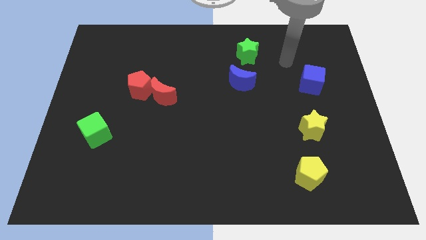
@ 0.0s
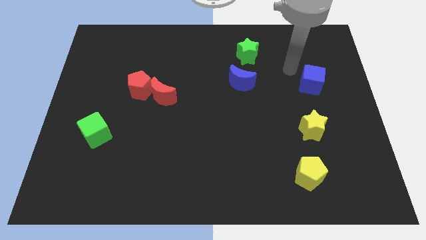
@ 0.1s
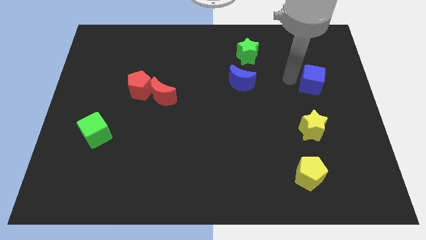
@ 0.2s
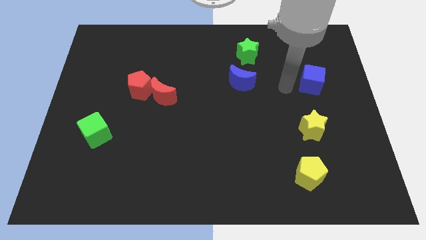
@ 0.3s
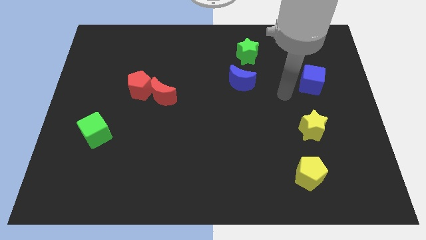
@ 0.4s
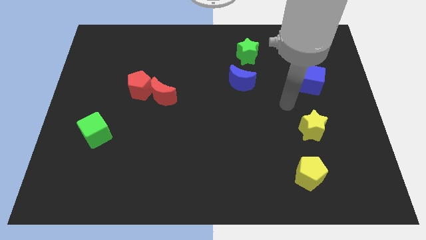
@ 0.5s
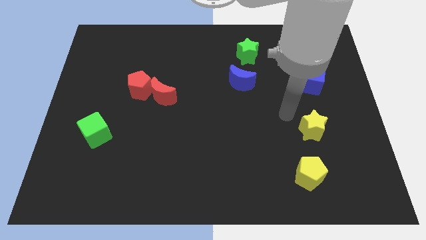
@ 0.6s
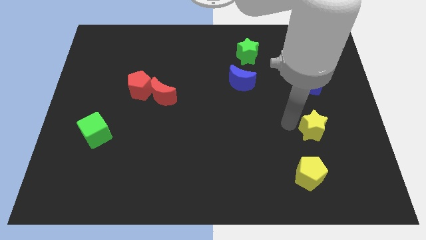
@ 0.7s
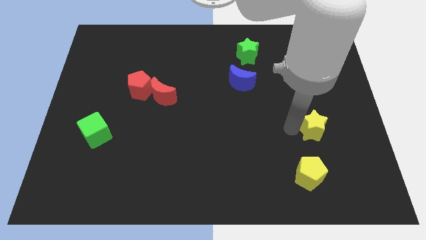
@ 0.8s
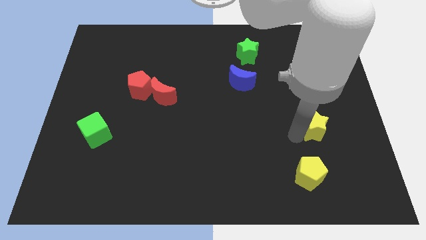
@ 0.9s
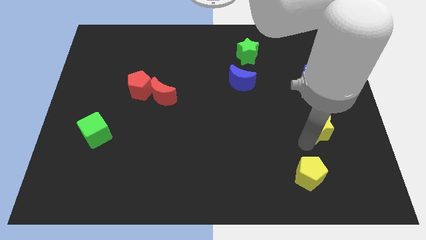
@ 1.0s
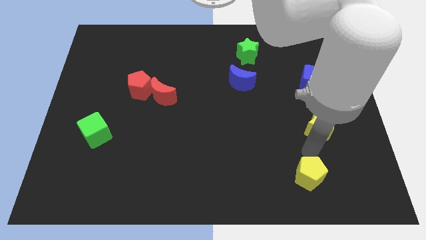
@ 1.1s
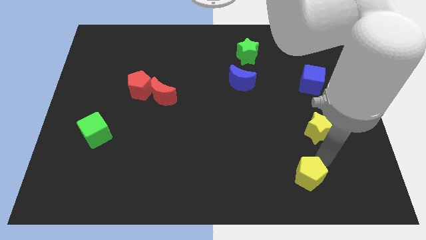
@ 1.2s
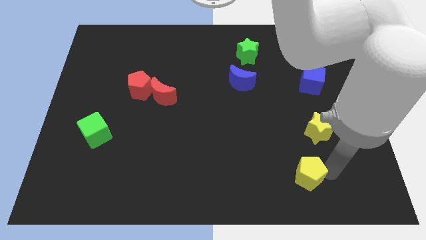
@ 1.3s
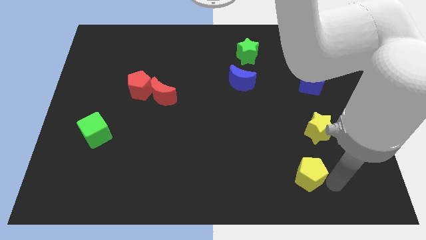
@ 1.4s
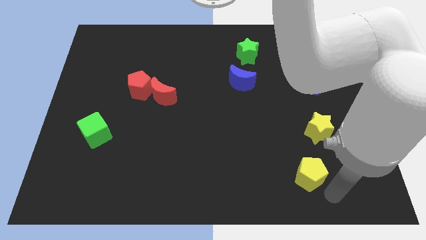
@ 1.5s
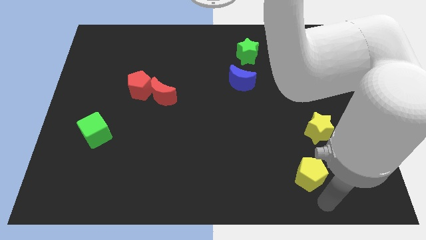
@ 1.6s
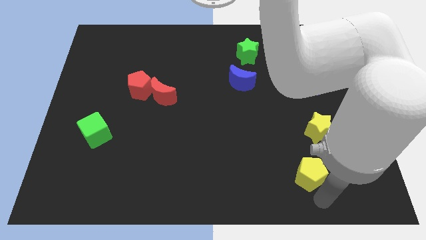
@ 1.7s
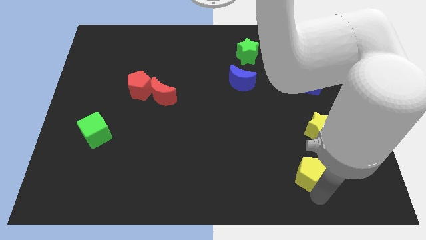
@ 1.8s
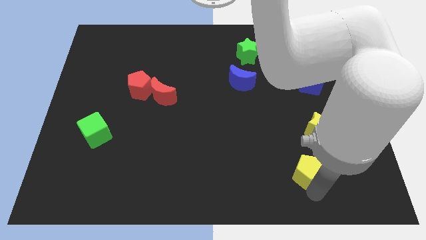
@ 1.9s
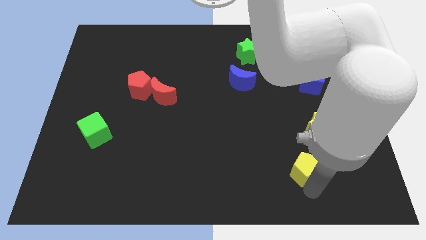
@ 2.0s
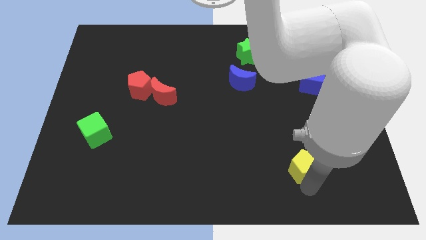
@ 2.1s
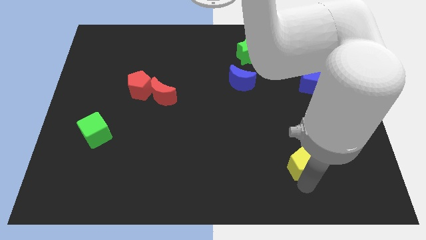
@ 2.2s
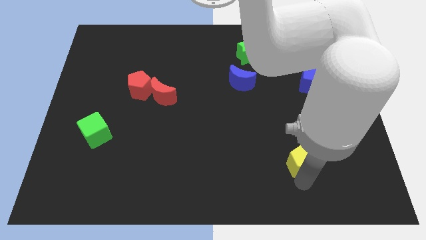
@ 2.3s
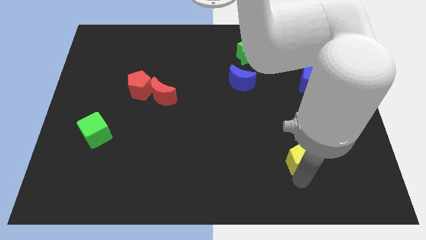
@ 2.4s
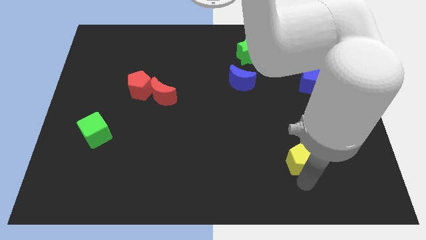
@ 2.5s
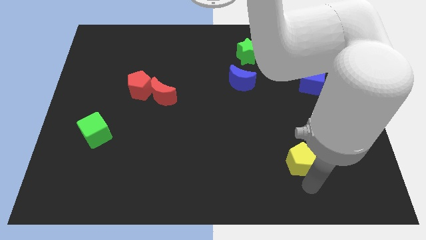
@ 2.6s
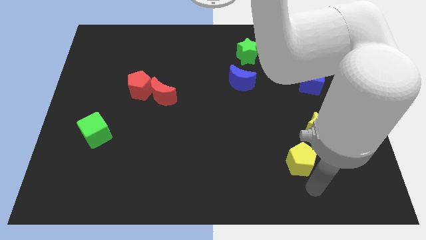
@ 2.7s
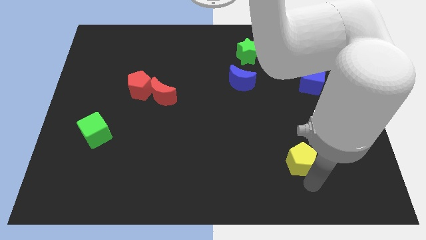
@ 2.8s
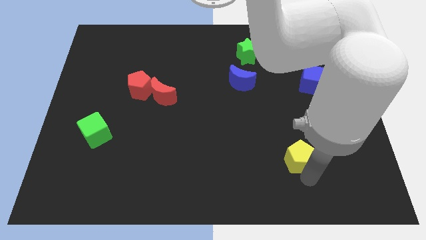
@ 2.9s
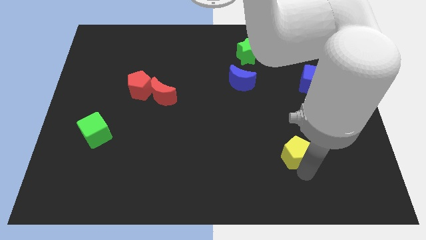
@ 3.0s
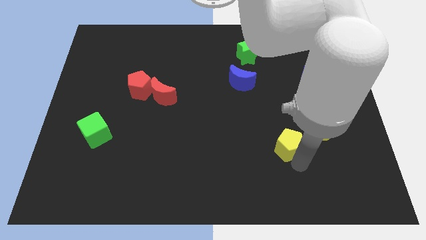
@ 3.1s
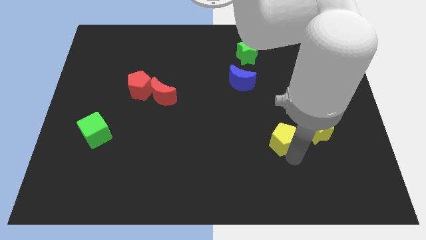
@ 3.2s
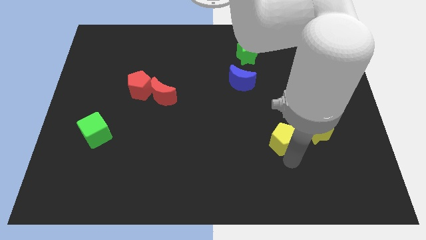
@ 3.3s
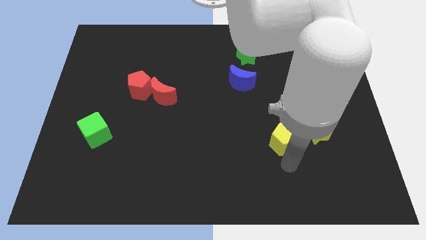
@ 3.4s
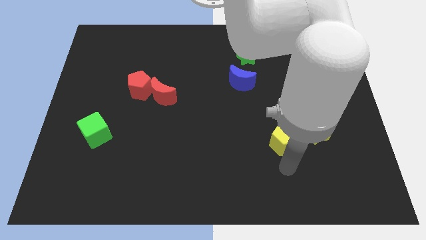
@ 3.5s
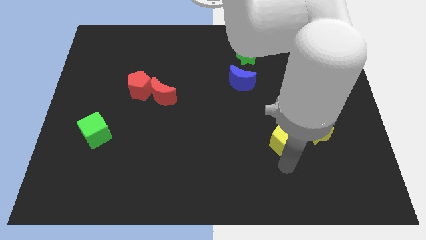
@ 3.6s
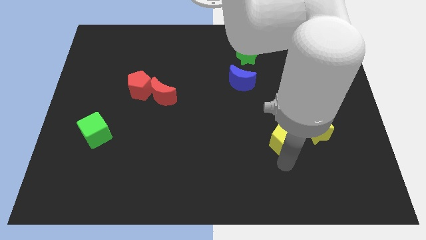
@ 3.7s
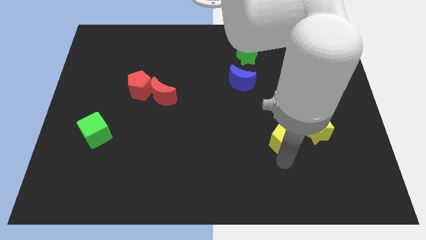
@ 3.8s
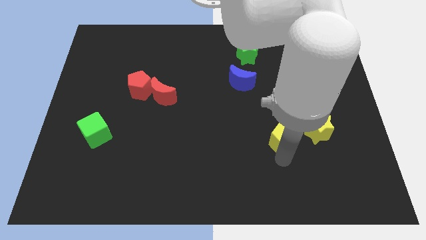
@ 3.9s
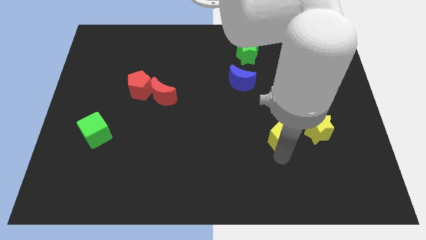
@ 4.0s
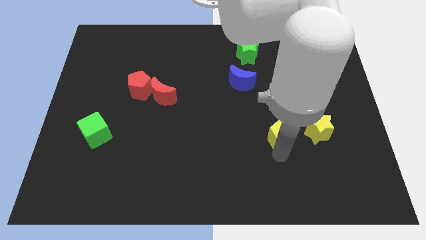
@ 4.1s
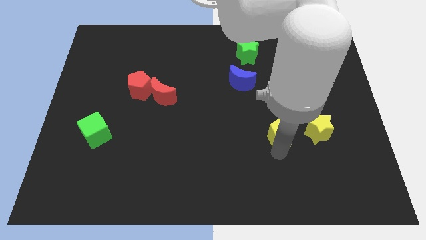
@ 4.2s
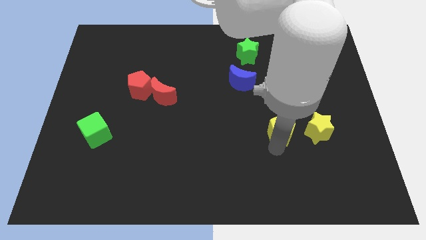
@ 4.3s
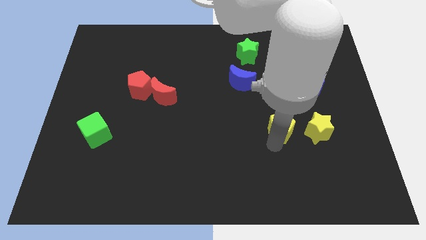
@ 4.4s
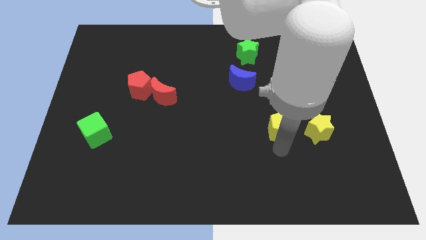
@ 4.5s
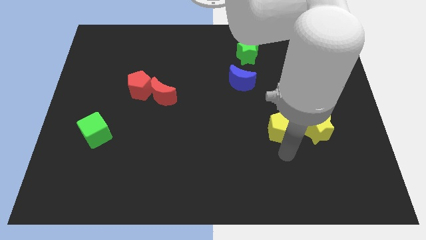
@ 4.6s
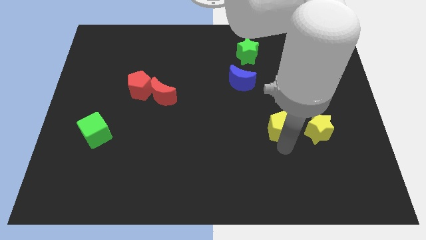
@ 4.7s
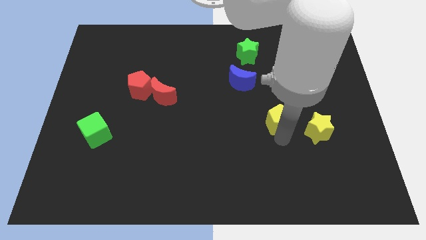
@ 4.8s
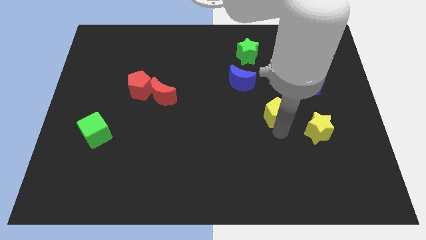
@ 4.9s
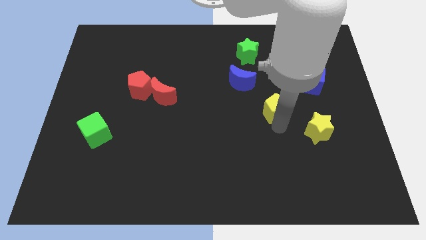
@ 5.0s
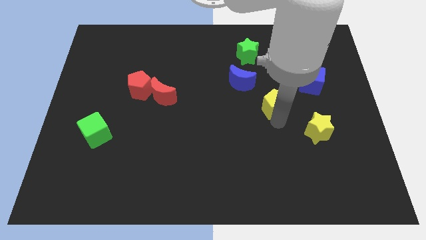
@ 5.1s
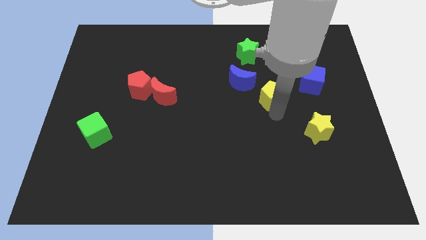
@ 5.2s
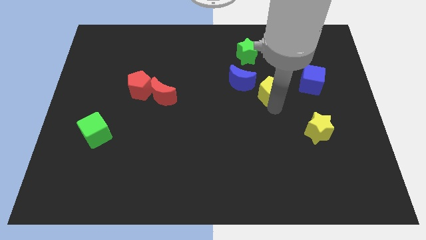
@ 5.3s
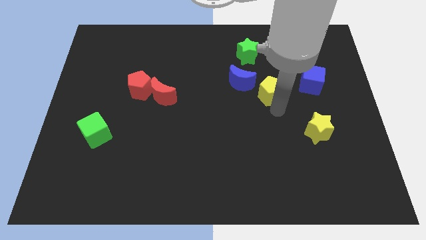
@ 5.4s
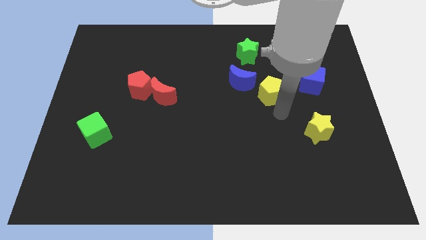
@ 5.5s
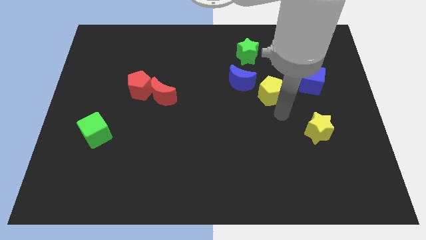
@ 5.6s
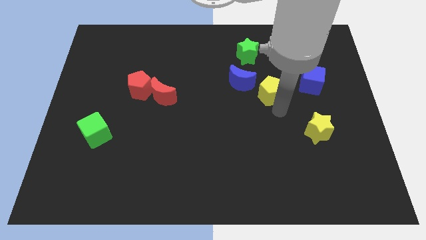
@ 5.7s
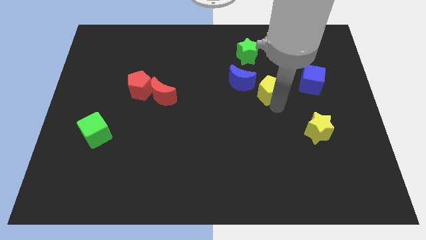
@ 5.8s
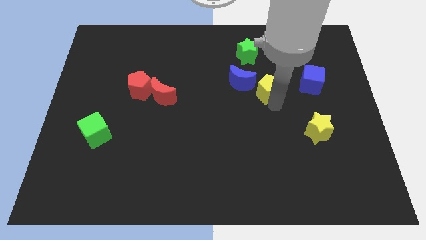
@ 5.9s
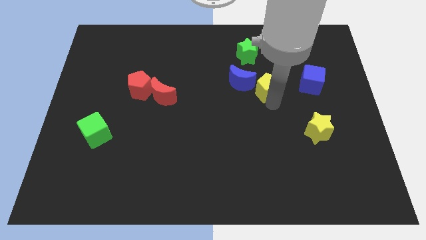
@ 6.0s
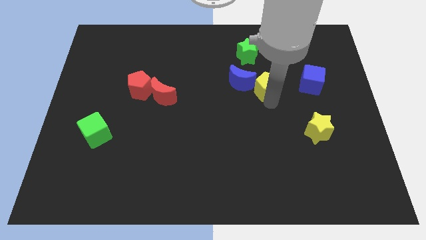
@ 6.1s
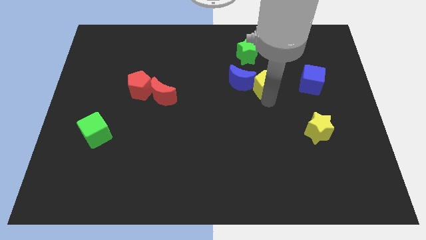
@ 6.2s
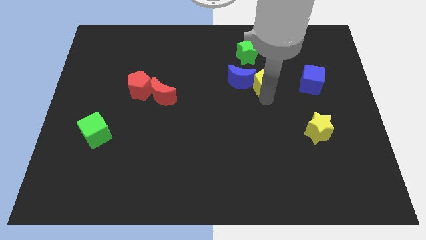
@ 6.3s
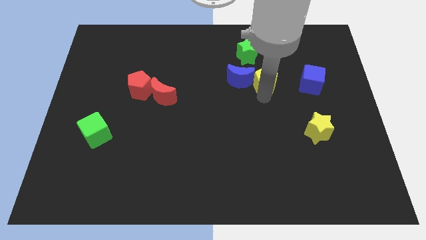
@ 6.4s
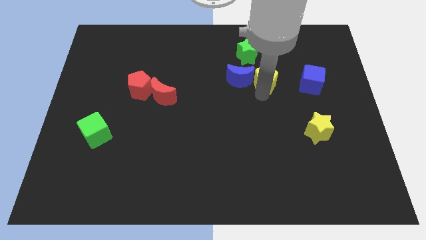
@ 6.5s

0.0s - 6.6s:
move the yellow pentagon diagonally up and to the right of the blue moon
